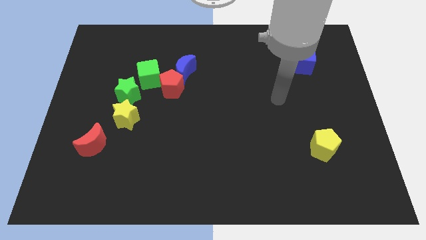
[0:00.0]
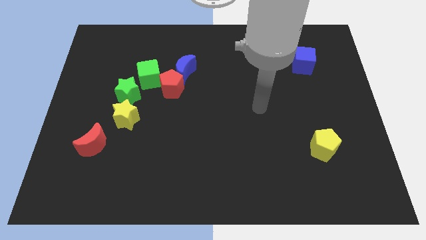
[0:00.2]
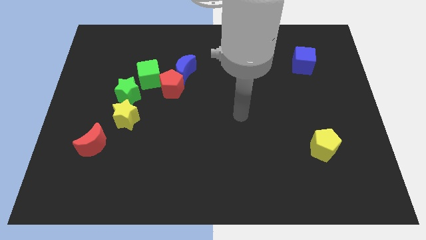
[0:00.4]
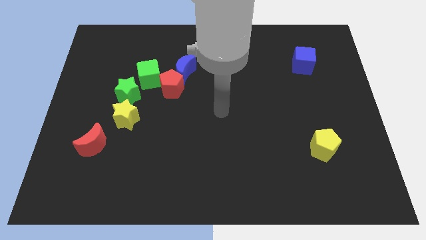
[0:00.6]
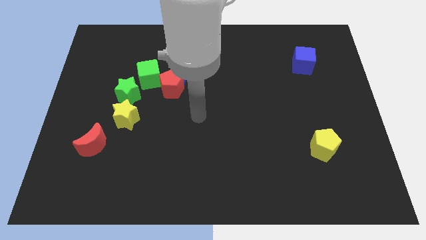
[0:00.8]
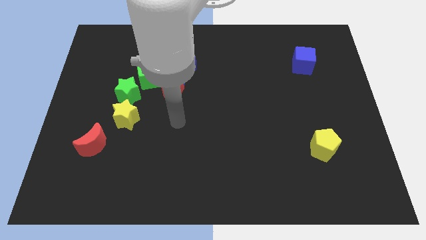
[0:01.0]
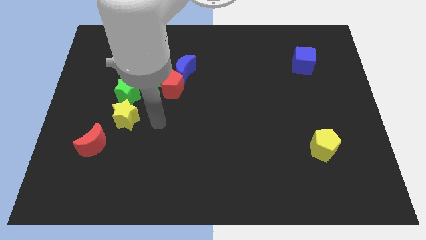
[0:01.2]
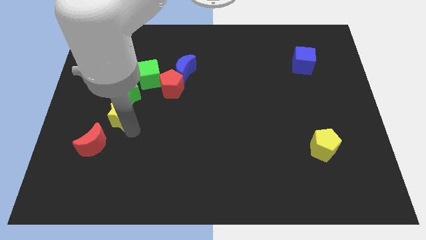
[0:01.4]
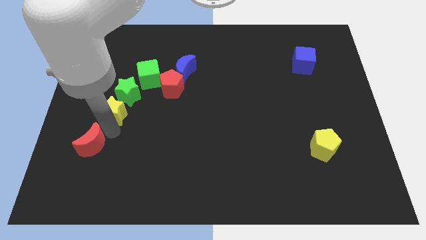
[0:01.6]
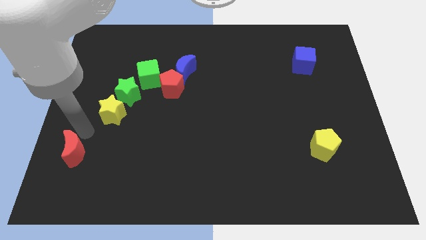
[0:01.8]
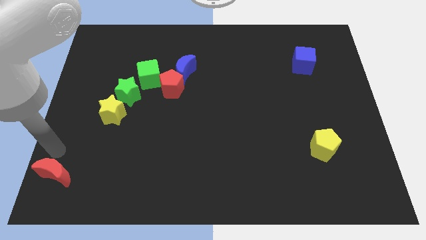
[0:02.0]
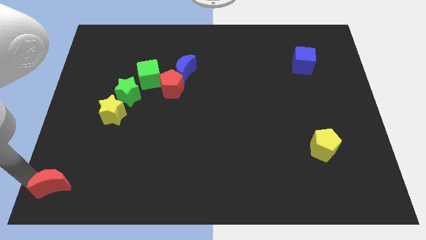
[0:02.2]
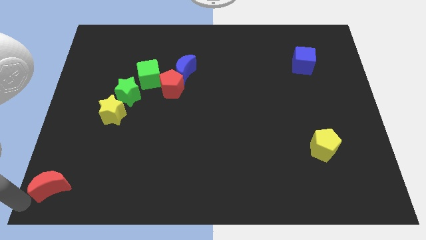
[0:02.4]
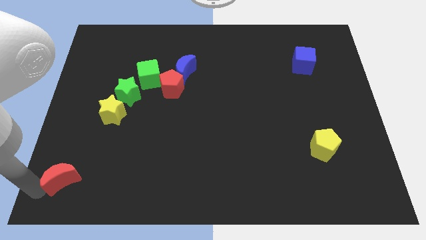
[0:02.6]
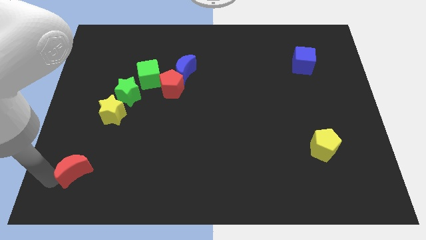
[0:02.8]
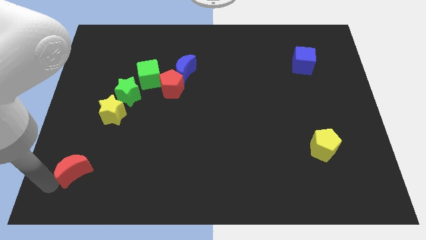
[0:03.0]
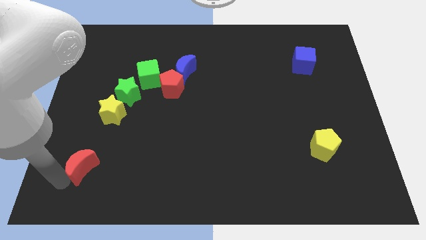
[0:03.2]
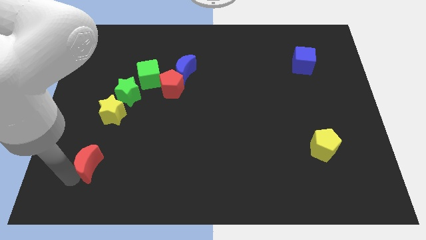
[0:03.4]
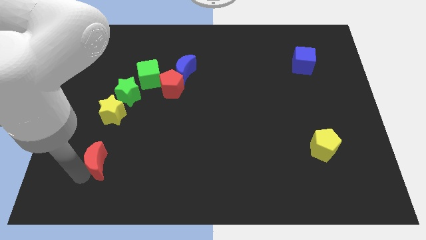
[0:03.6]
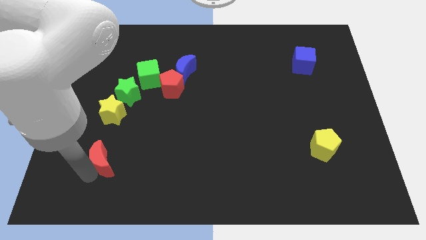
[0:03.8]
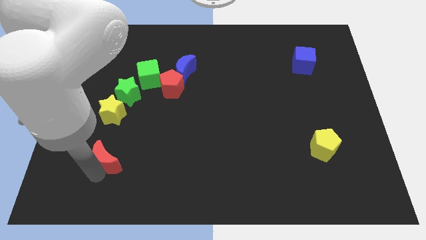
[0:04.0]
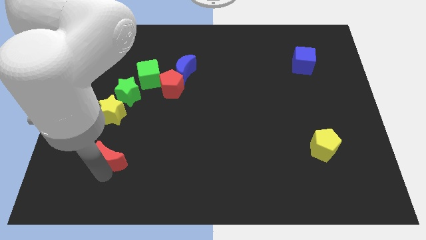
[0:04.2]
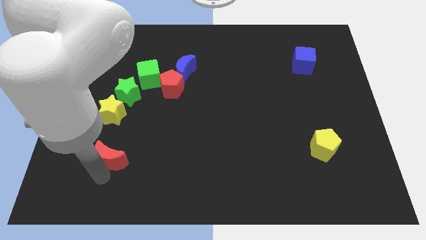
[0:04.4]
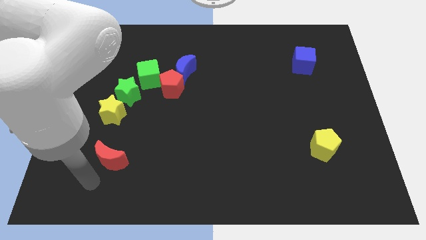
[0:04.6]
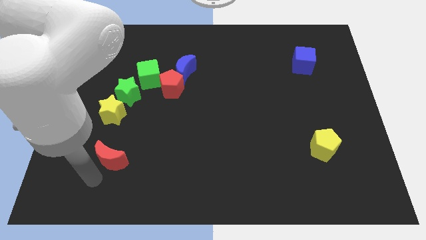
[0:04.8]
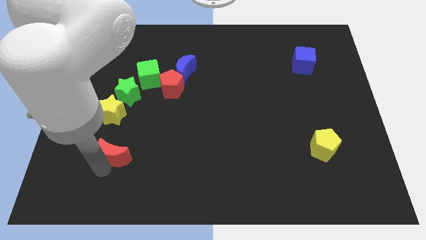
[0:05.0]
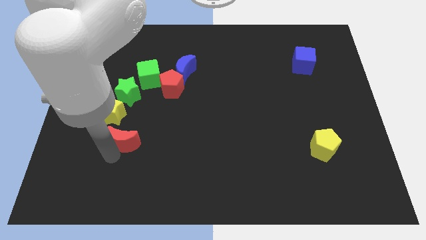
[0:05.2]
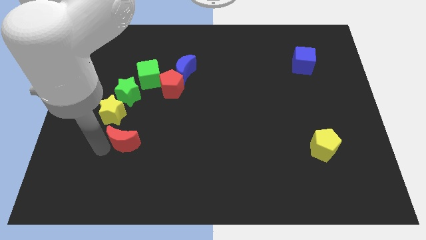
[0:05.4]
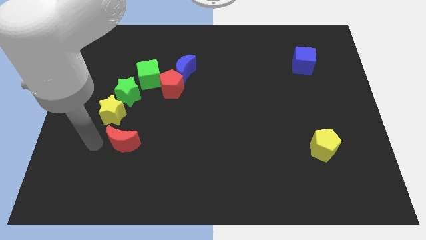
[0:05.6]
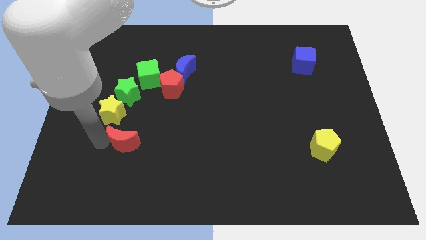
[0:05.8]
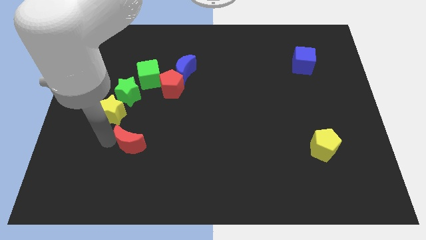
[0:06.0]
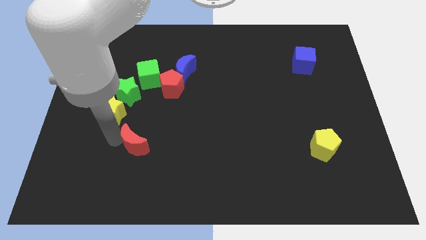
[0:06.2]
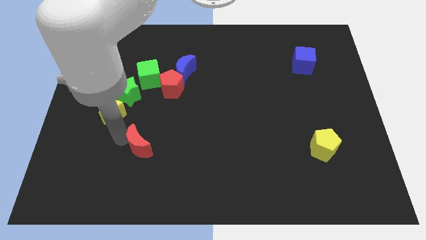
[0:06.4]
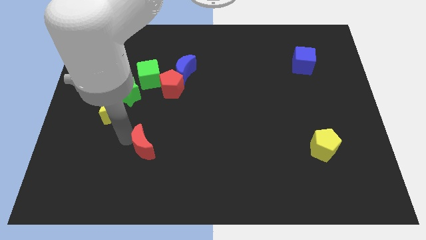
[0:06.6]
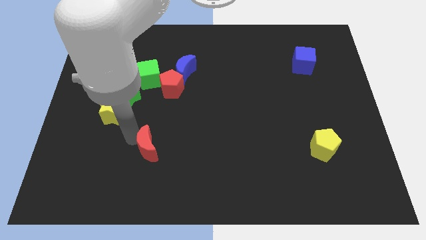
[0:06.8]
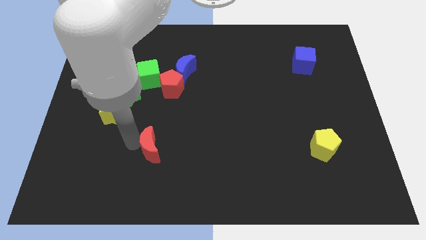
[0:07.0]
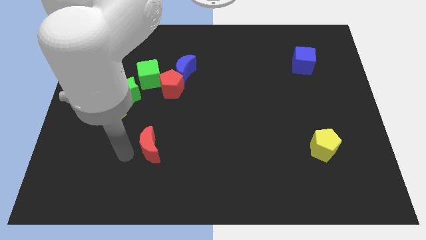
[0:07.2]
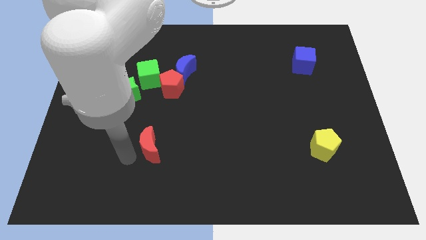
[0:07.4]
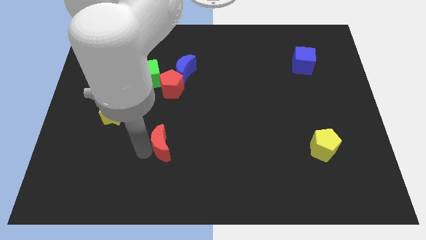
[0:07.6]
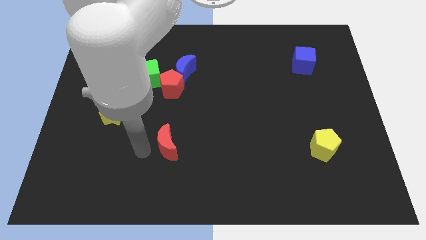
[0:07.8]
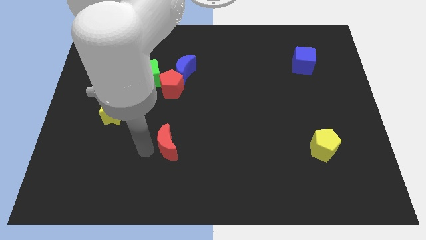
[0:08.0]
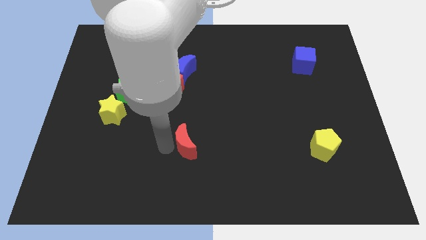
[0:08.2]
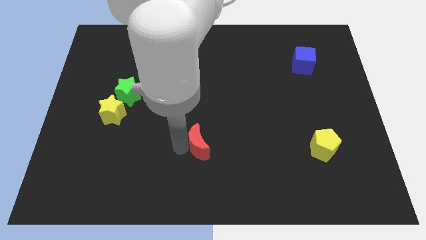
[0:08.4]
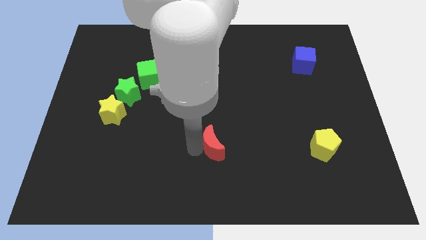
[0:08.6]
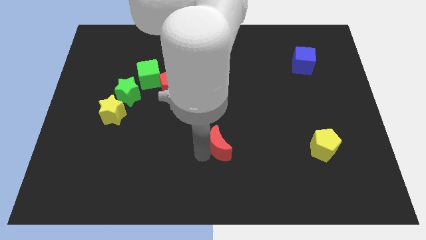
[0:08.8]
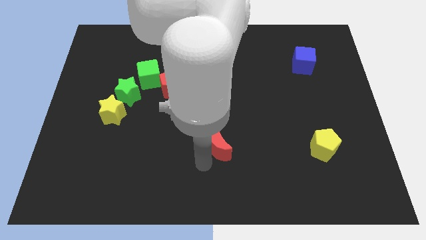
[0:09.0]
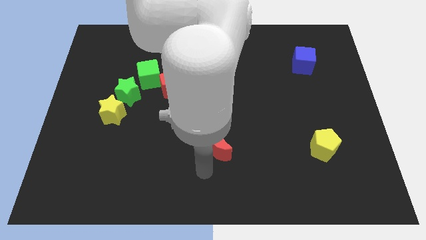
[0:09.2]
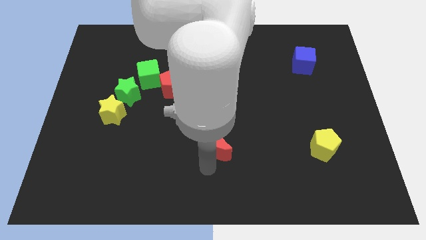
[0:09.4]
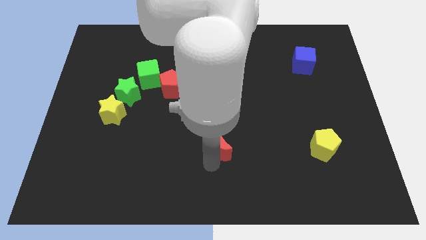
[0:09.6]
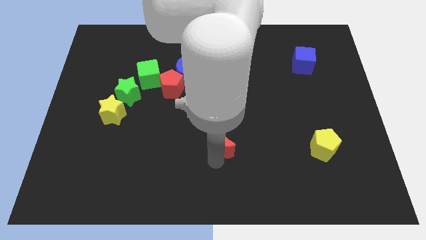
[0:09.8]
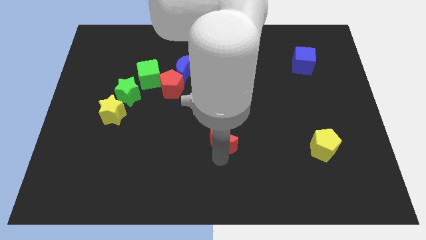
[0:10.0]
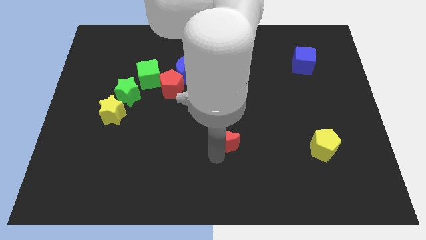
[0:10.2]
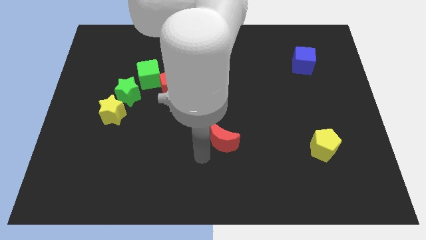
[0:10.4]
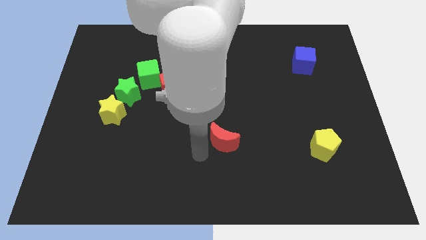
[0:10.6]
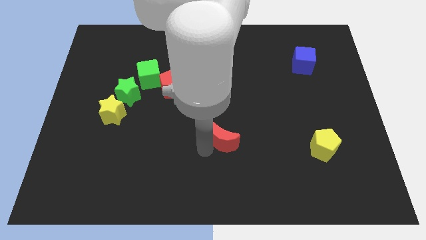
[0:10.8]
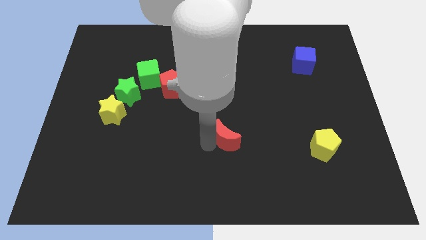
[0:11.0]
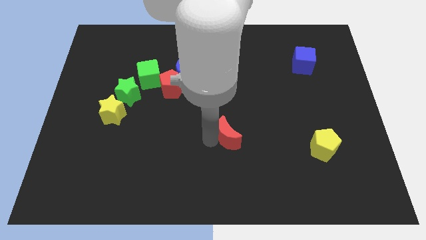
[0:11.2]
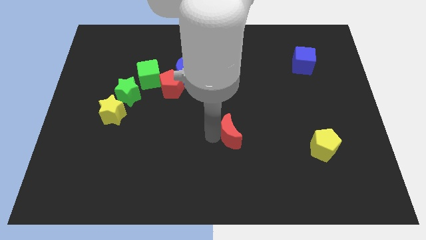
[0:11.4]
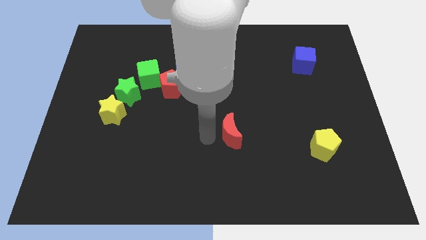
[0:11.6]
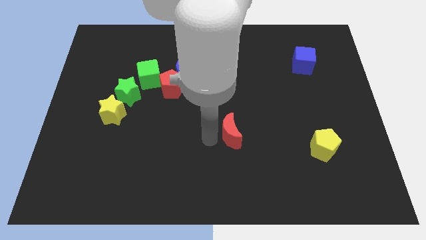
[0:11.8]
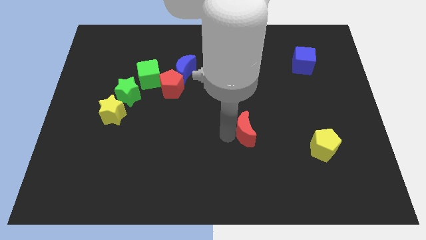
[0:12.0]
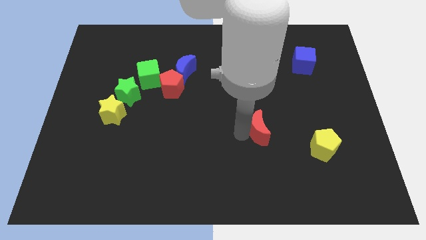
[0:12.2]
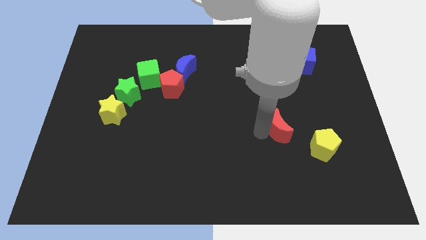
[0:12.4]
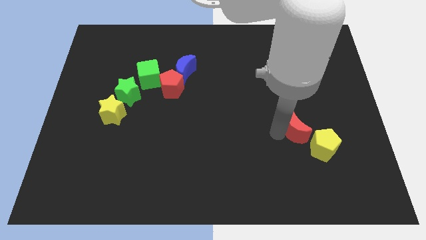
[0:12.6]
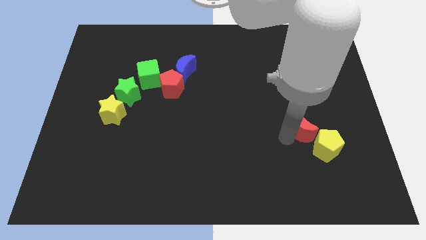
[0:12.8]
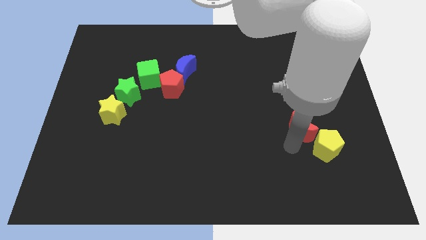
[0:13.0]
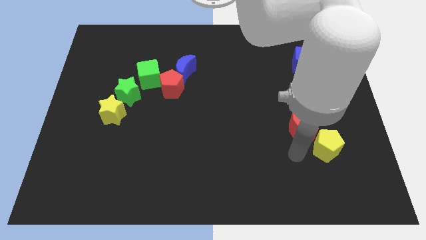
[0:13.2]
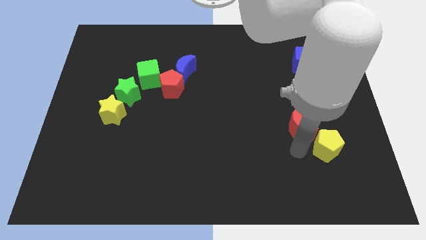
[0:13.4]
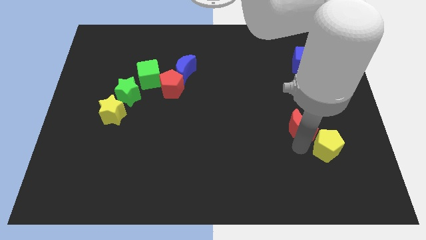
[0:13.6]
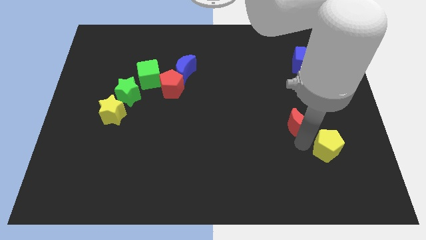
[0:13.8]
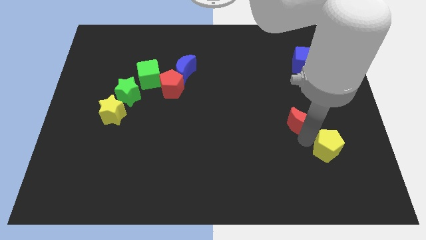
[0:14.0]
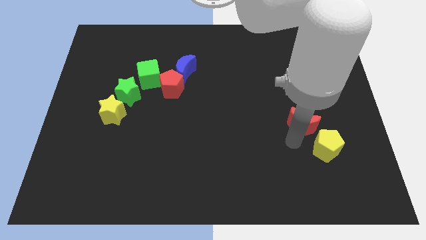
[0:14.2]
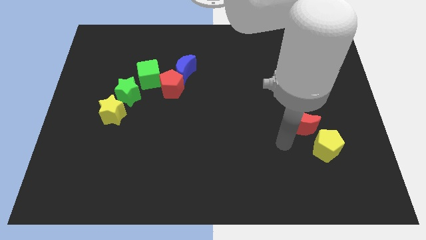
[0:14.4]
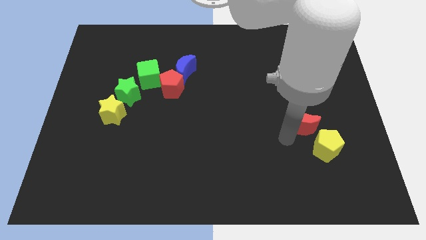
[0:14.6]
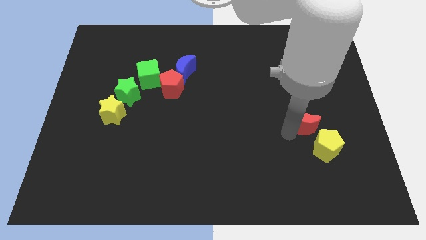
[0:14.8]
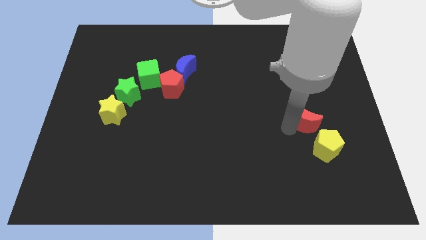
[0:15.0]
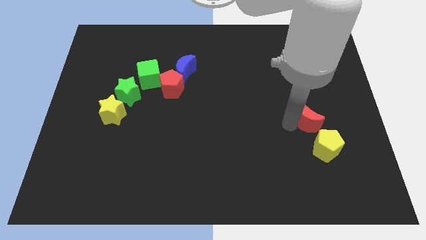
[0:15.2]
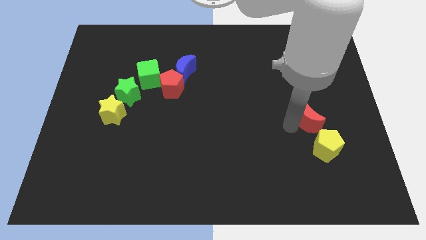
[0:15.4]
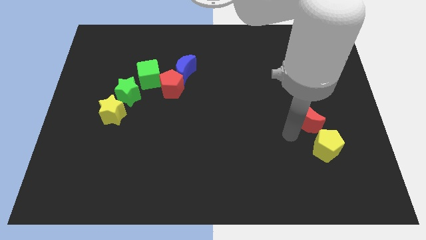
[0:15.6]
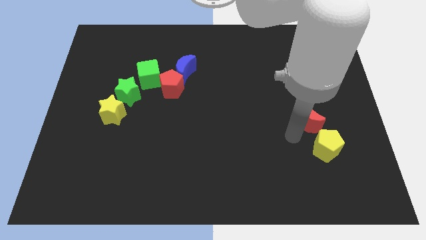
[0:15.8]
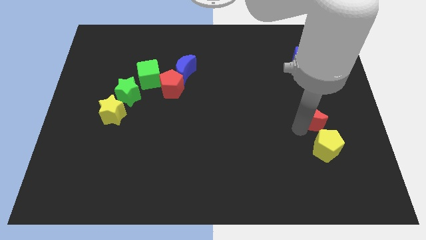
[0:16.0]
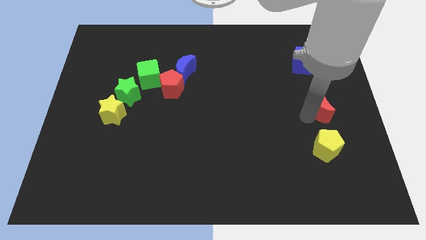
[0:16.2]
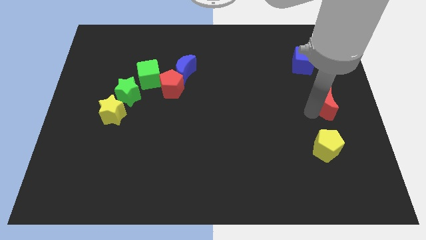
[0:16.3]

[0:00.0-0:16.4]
push the red moon to the right side
